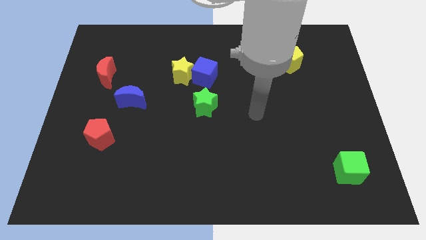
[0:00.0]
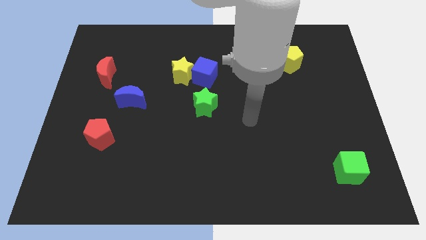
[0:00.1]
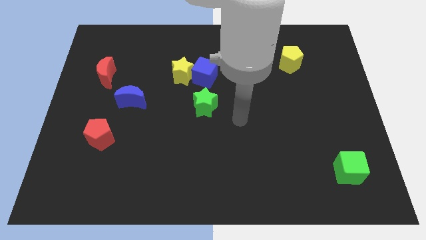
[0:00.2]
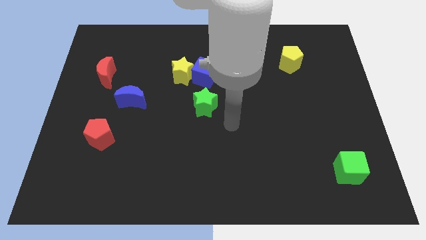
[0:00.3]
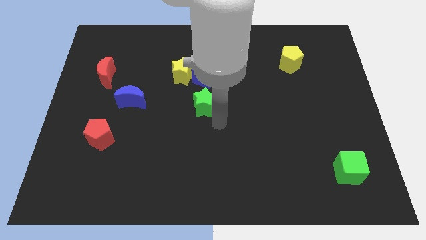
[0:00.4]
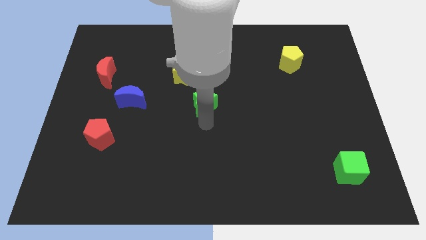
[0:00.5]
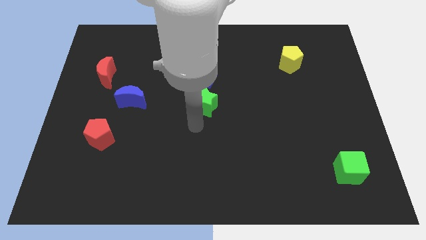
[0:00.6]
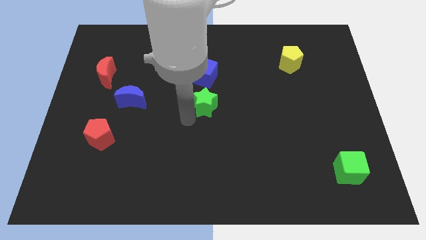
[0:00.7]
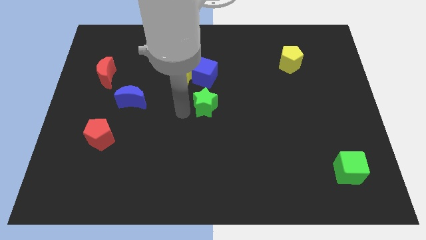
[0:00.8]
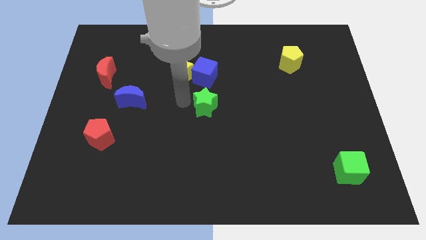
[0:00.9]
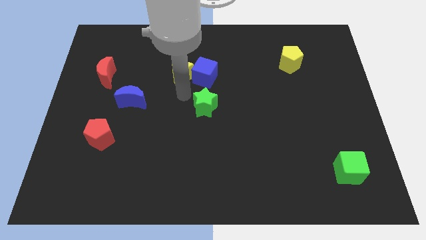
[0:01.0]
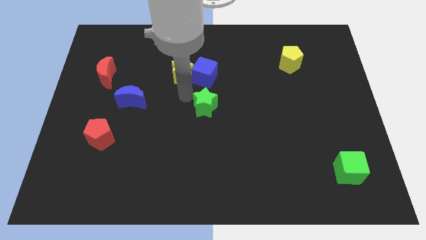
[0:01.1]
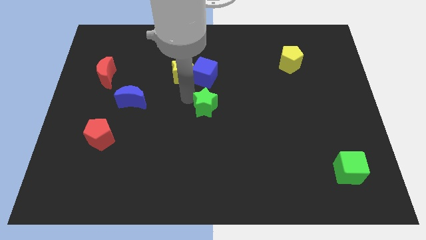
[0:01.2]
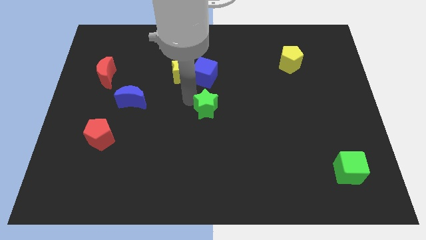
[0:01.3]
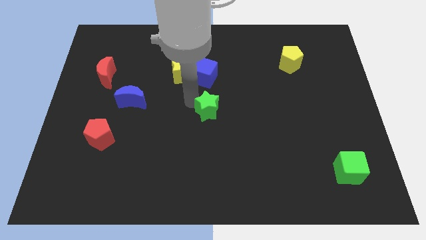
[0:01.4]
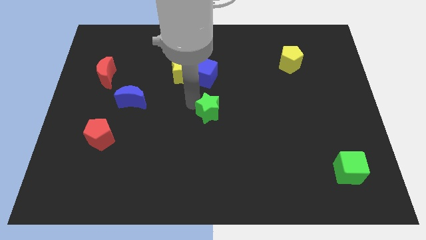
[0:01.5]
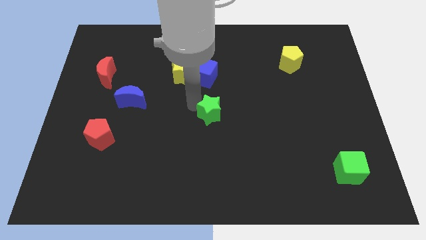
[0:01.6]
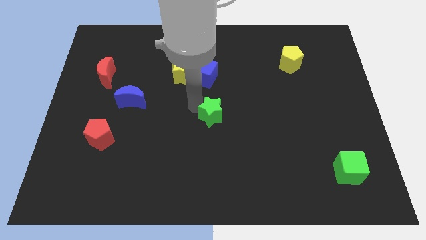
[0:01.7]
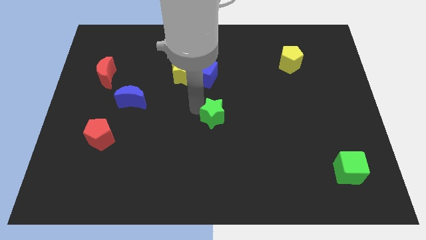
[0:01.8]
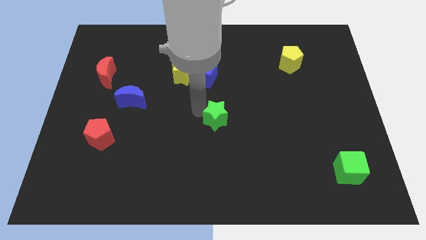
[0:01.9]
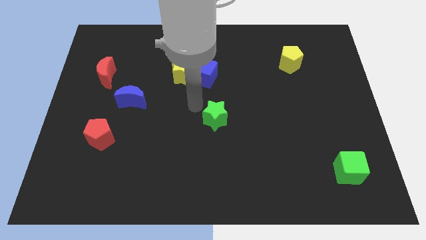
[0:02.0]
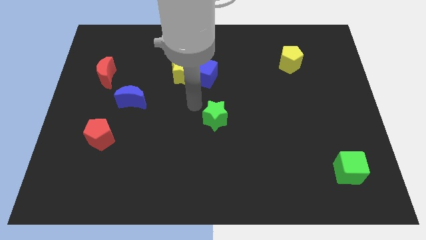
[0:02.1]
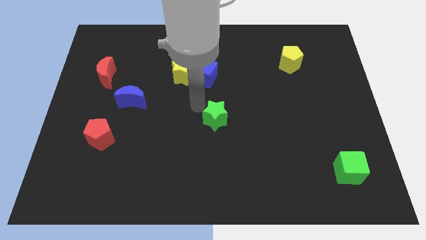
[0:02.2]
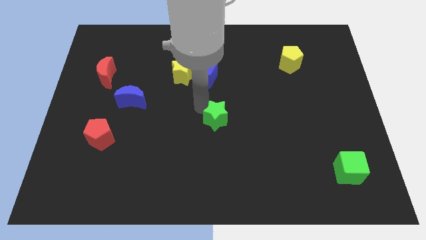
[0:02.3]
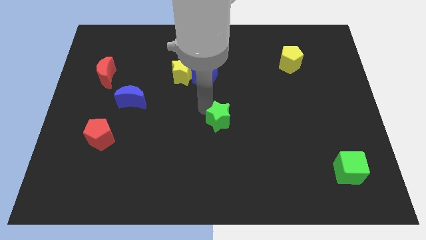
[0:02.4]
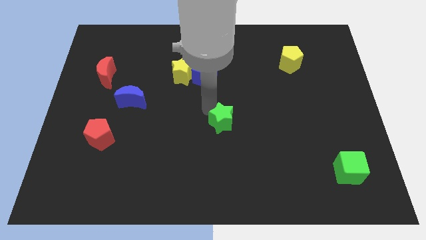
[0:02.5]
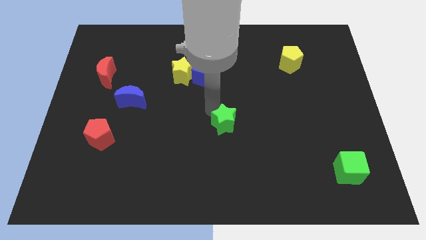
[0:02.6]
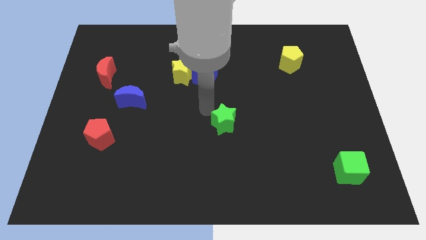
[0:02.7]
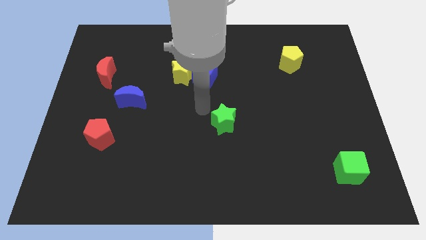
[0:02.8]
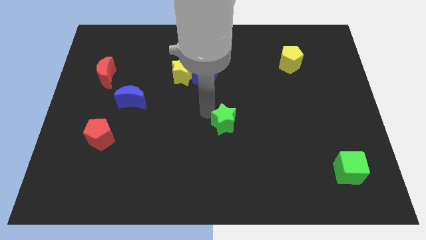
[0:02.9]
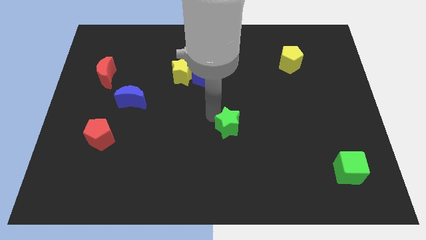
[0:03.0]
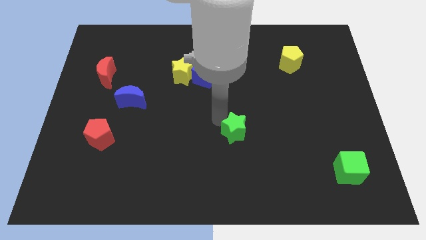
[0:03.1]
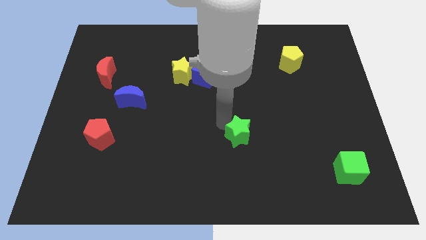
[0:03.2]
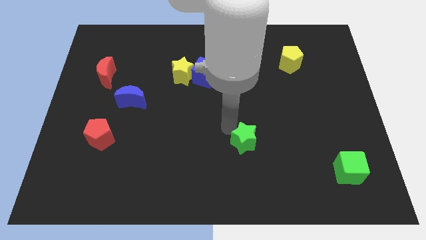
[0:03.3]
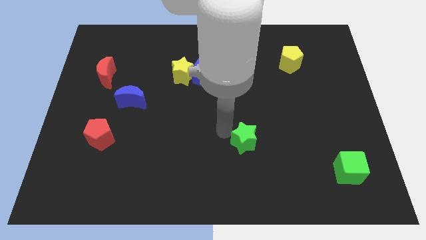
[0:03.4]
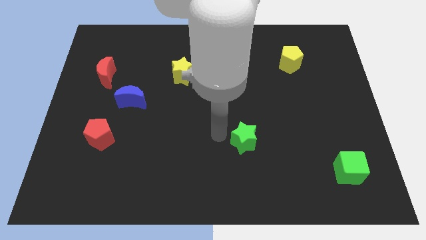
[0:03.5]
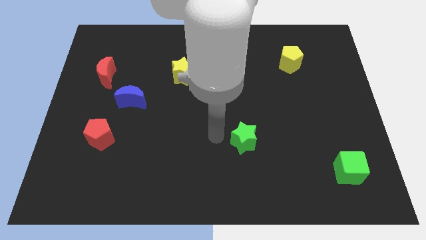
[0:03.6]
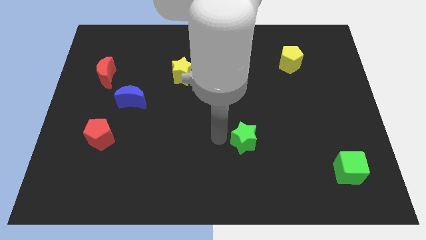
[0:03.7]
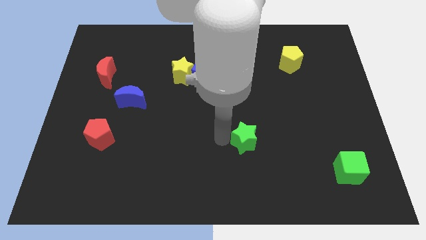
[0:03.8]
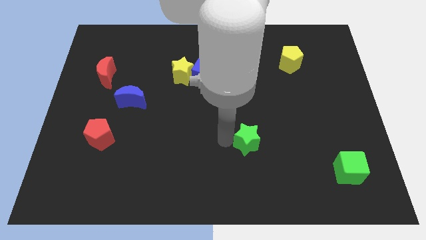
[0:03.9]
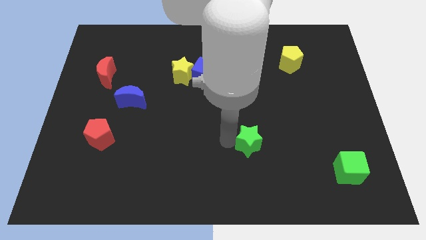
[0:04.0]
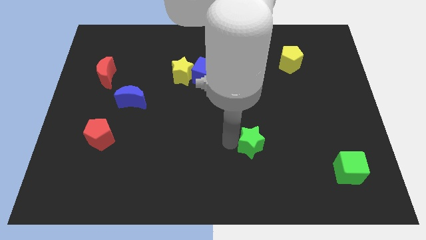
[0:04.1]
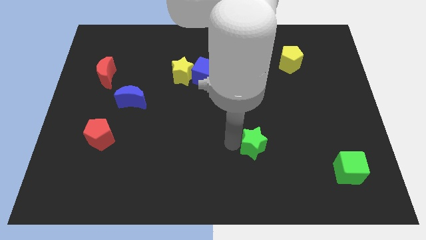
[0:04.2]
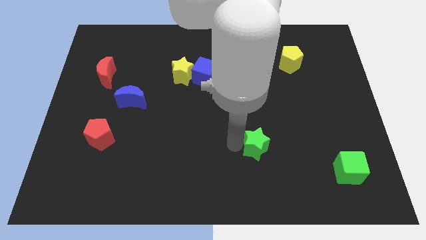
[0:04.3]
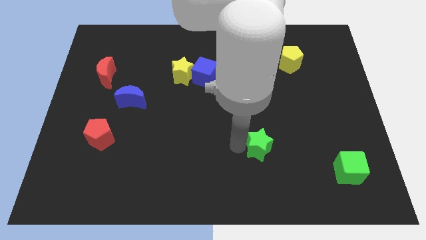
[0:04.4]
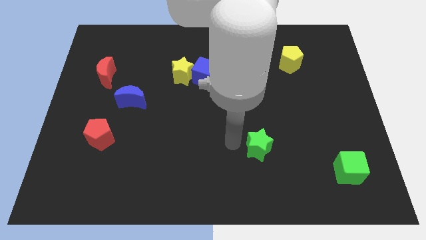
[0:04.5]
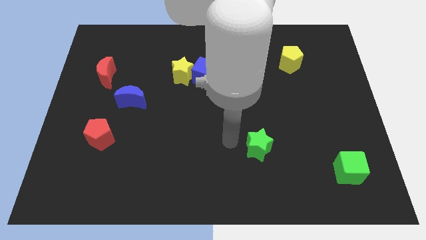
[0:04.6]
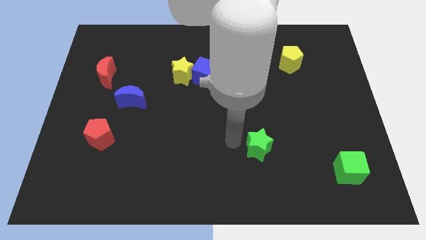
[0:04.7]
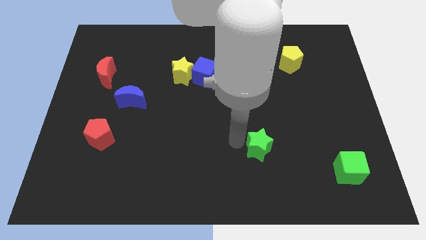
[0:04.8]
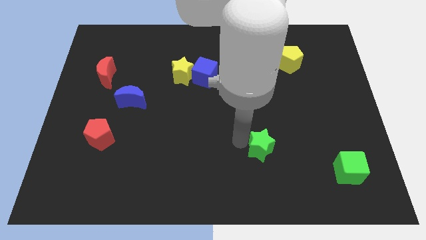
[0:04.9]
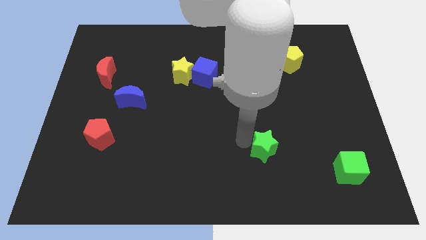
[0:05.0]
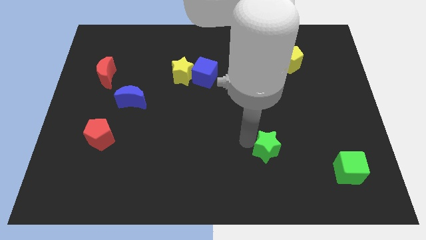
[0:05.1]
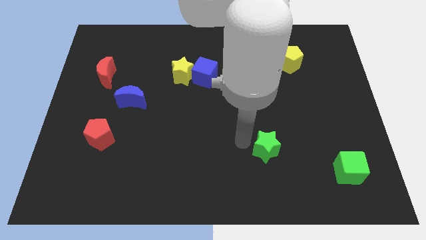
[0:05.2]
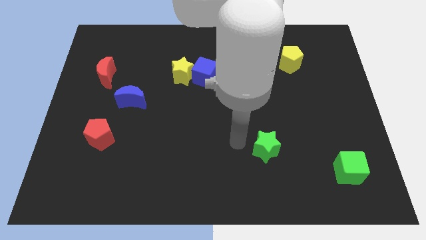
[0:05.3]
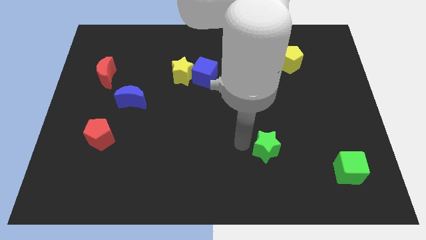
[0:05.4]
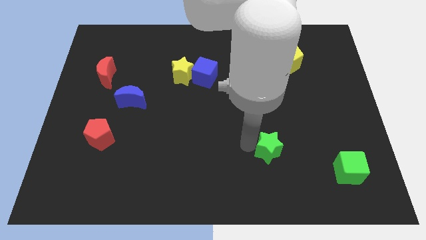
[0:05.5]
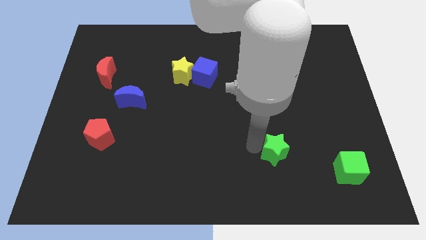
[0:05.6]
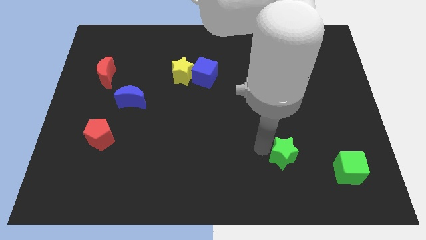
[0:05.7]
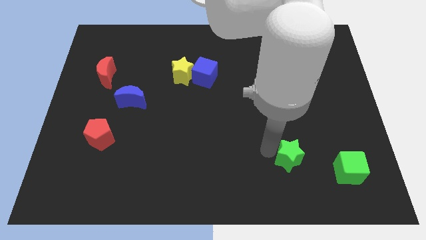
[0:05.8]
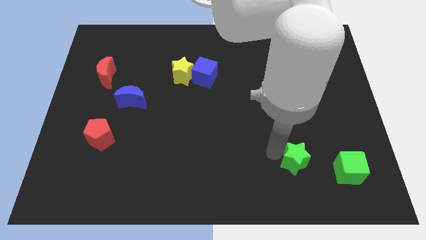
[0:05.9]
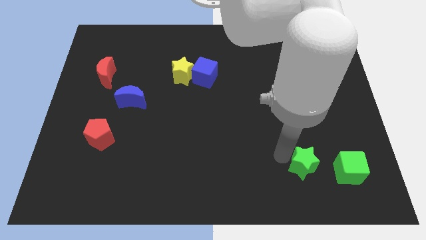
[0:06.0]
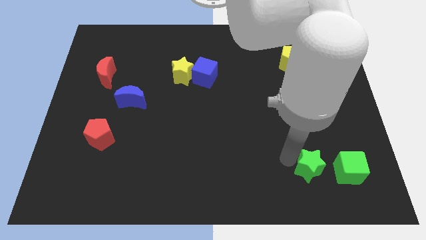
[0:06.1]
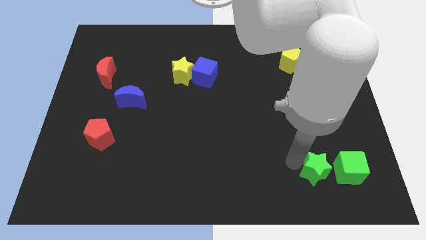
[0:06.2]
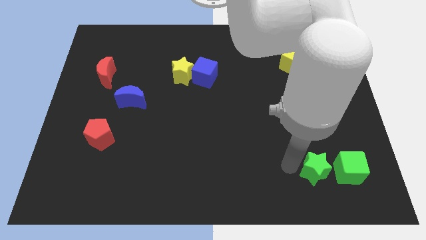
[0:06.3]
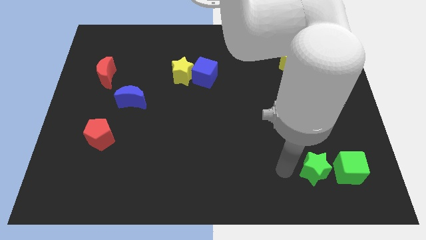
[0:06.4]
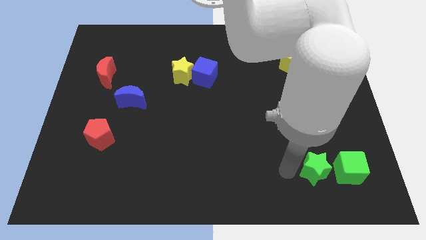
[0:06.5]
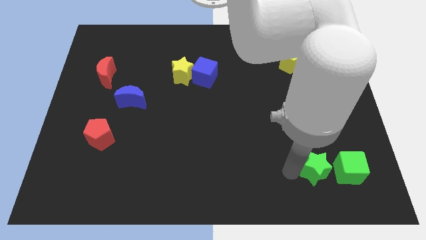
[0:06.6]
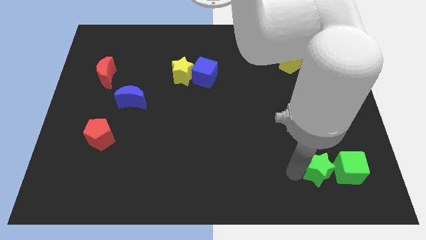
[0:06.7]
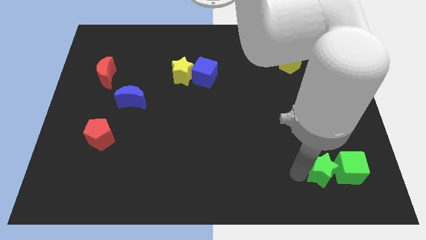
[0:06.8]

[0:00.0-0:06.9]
slide the green star next to the green cube
